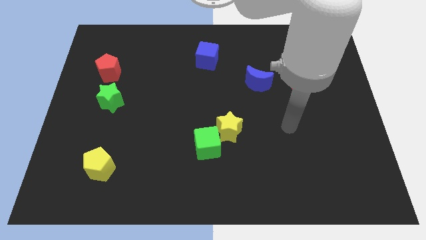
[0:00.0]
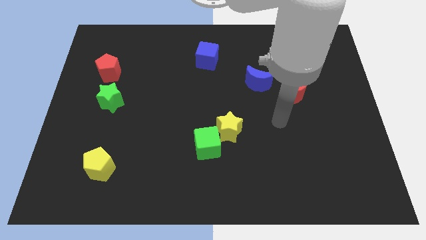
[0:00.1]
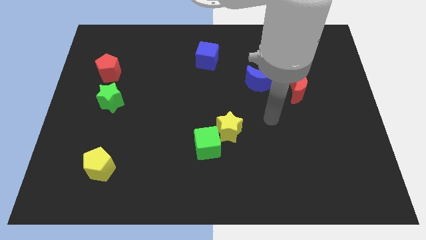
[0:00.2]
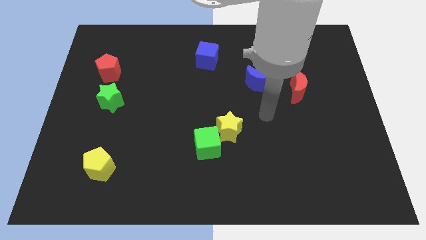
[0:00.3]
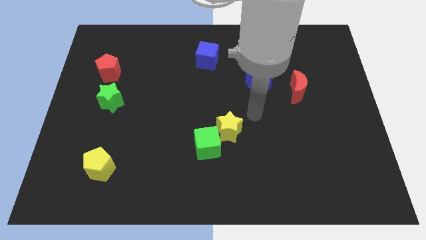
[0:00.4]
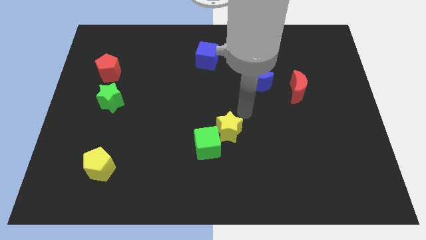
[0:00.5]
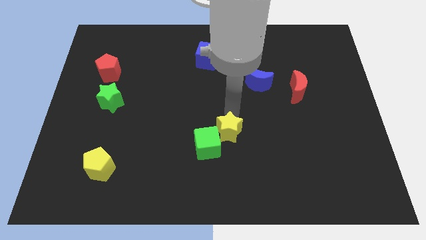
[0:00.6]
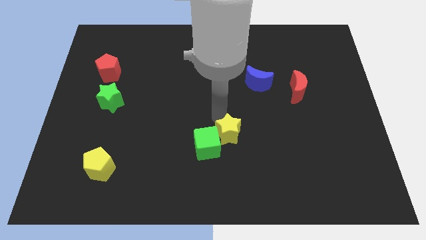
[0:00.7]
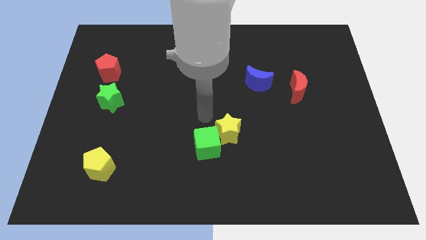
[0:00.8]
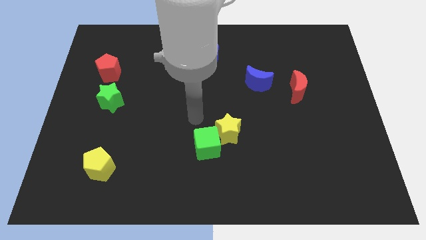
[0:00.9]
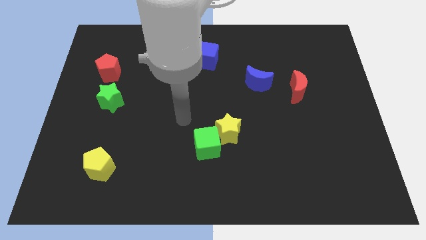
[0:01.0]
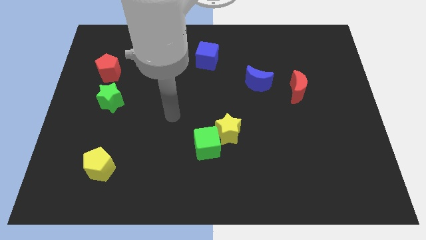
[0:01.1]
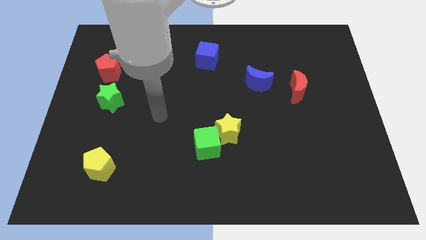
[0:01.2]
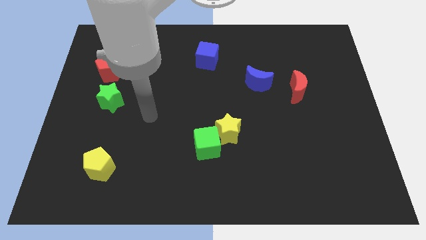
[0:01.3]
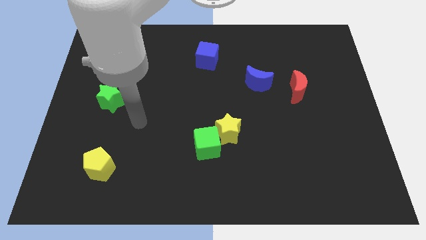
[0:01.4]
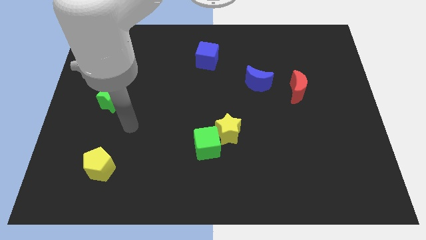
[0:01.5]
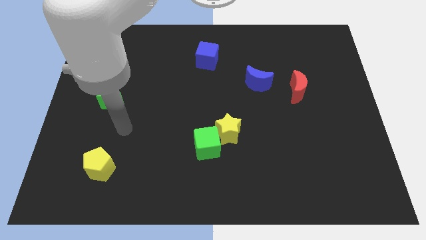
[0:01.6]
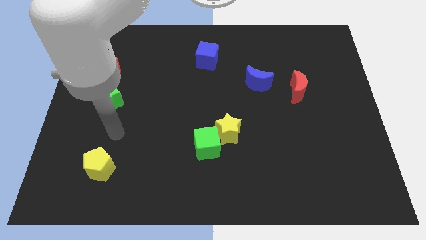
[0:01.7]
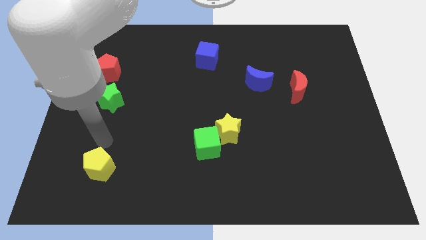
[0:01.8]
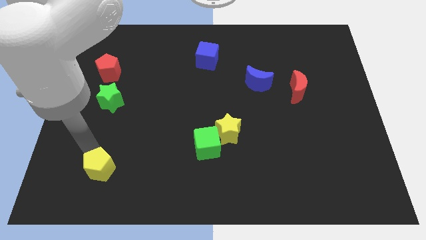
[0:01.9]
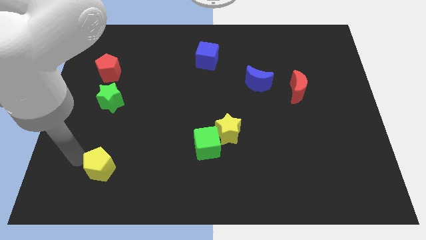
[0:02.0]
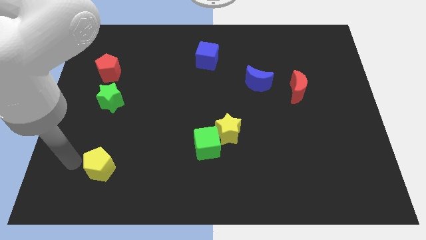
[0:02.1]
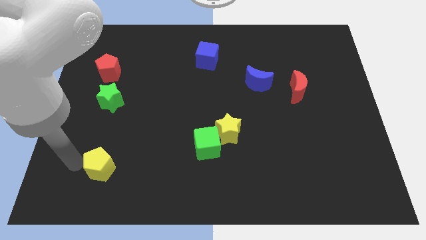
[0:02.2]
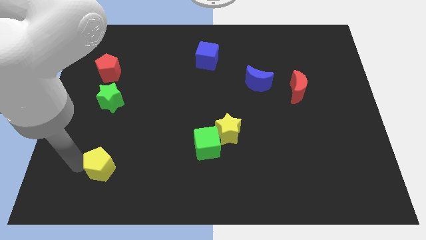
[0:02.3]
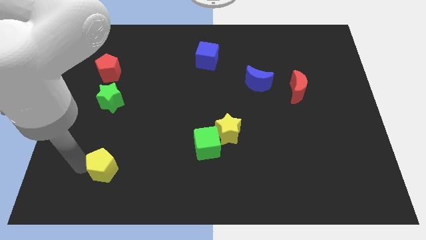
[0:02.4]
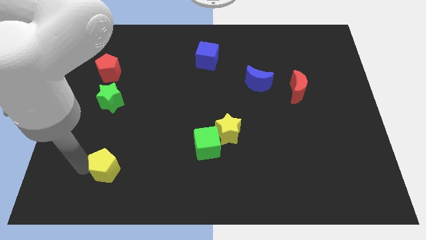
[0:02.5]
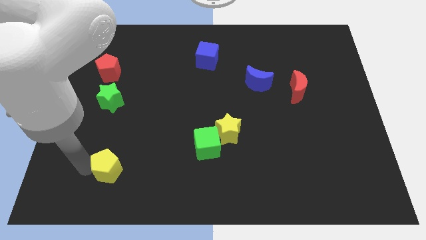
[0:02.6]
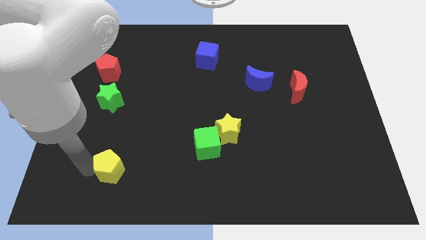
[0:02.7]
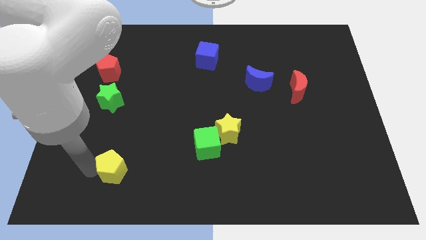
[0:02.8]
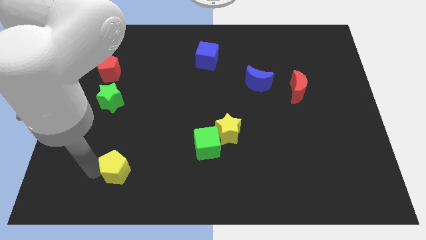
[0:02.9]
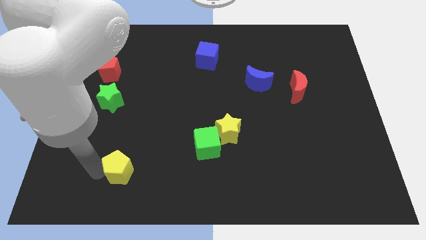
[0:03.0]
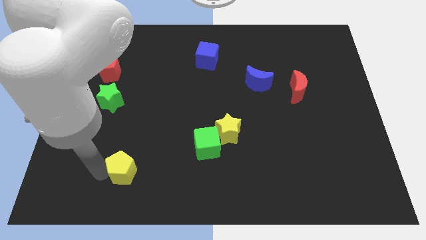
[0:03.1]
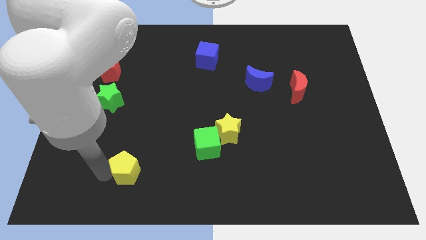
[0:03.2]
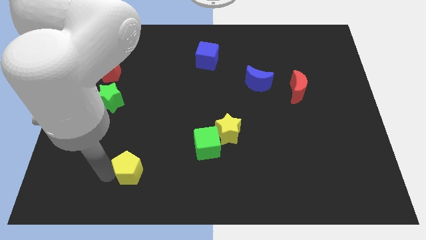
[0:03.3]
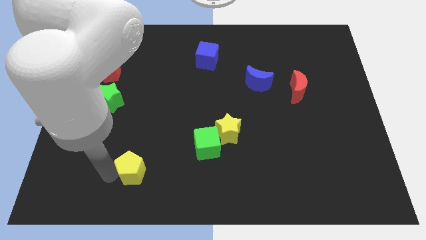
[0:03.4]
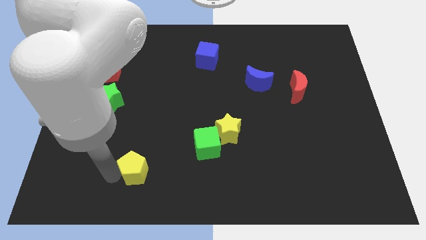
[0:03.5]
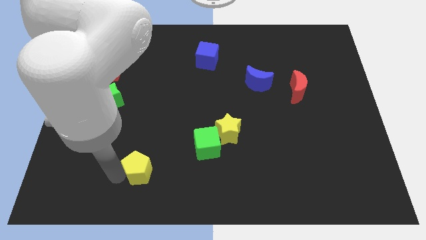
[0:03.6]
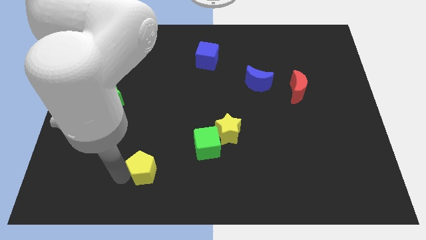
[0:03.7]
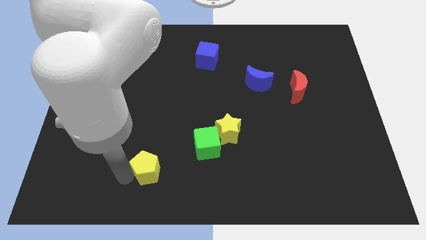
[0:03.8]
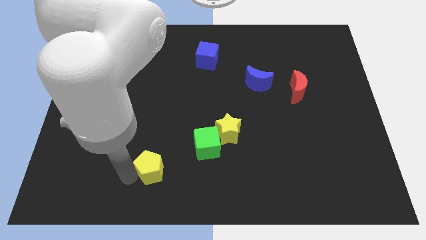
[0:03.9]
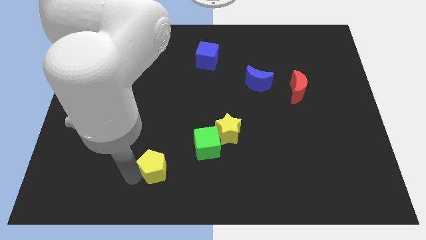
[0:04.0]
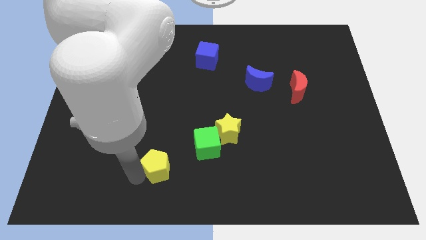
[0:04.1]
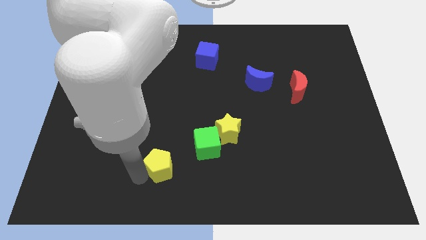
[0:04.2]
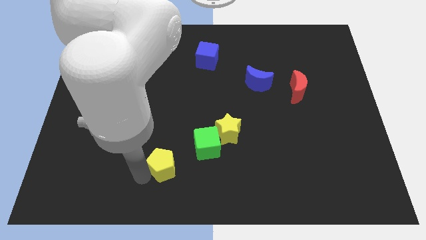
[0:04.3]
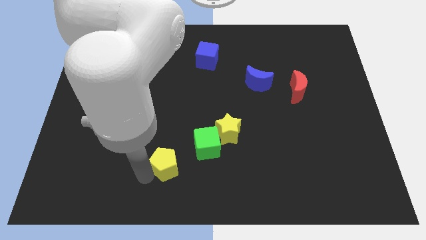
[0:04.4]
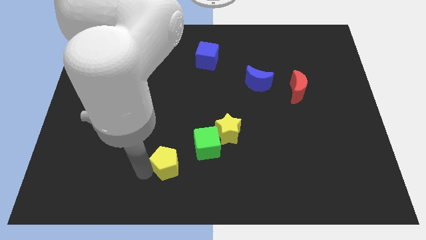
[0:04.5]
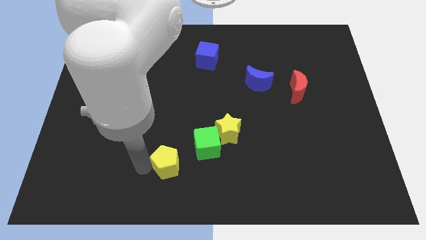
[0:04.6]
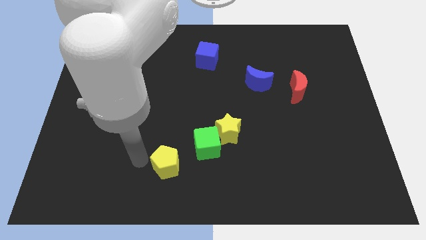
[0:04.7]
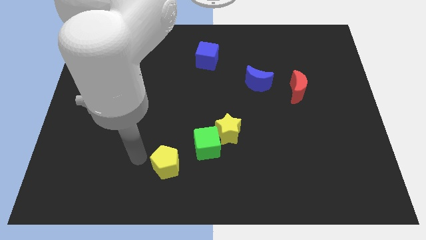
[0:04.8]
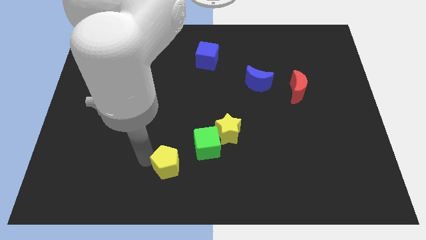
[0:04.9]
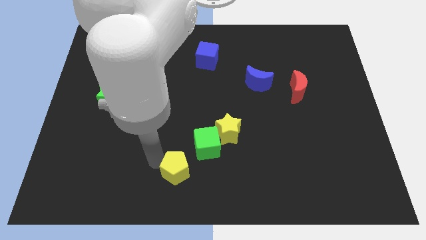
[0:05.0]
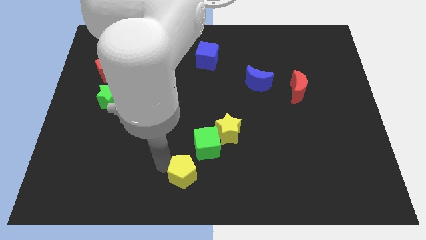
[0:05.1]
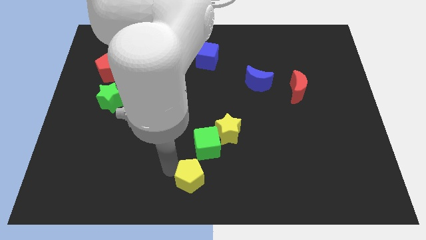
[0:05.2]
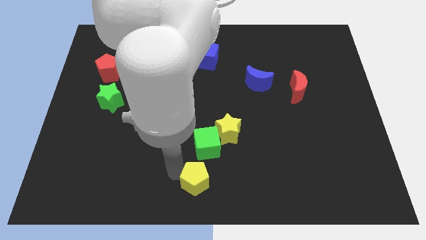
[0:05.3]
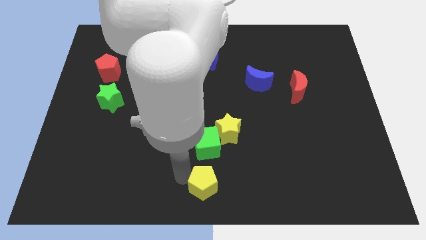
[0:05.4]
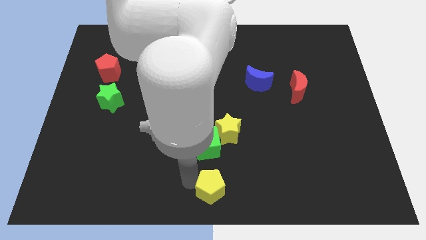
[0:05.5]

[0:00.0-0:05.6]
push the yellow pentagon to the bottom side of the yellow star
